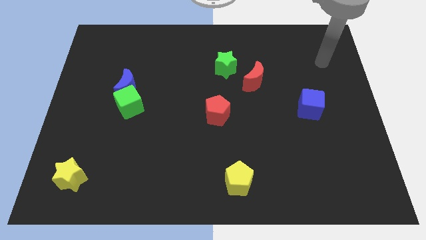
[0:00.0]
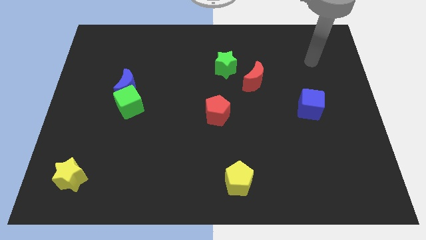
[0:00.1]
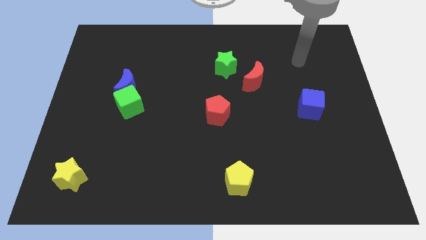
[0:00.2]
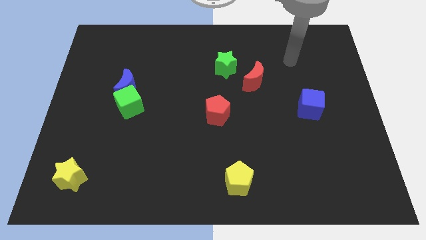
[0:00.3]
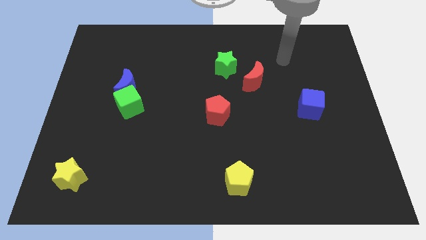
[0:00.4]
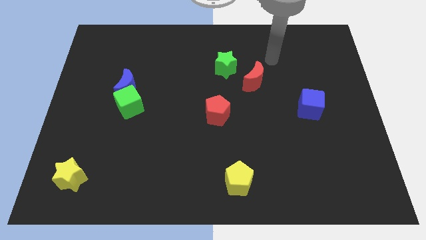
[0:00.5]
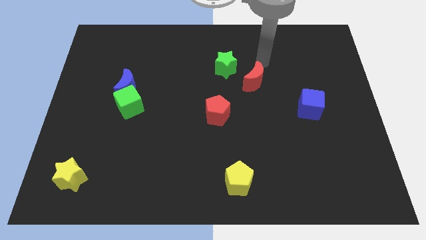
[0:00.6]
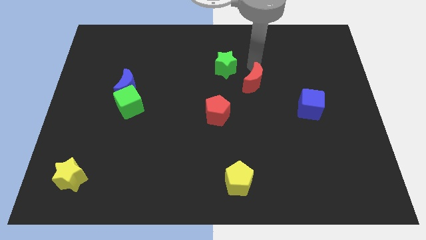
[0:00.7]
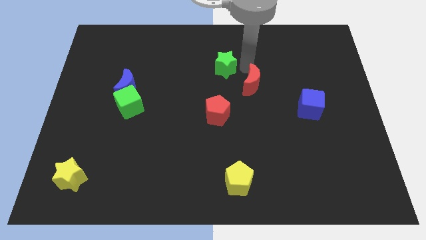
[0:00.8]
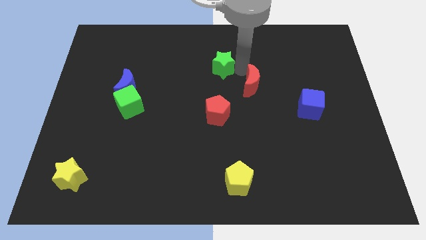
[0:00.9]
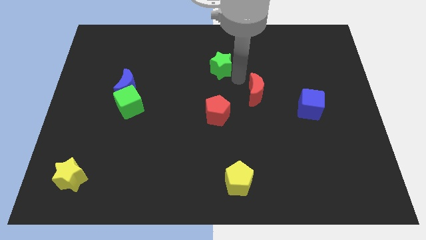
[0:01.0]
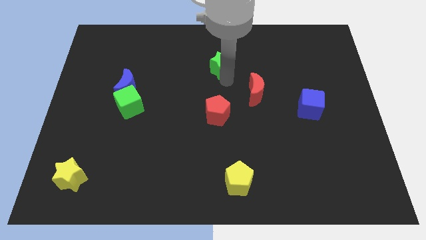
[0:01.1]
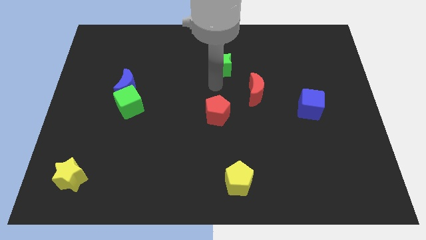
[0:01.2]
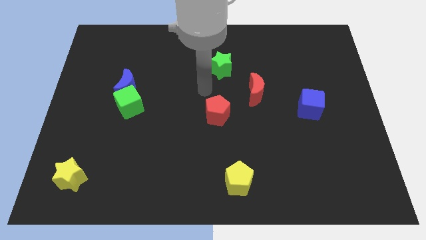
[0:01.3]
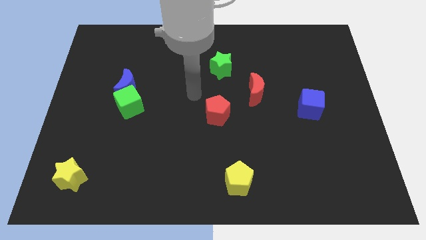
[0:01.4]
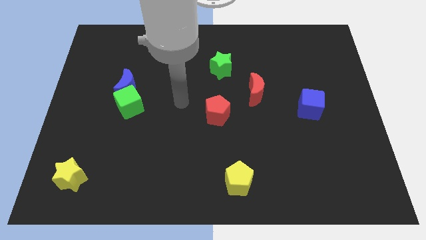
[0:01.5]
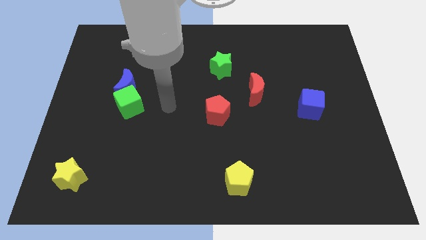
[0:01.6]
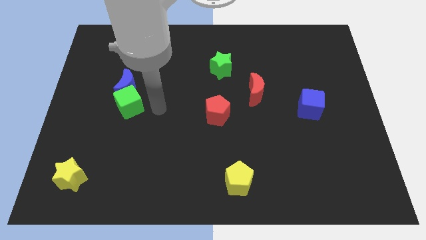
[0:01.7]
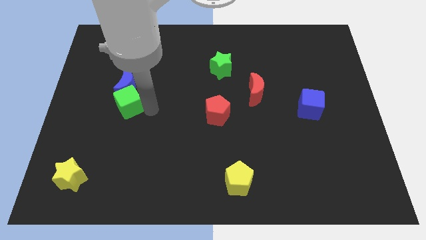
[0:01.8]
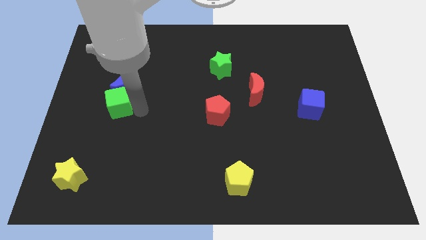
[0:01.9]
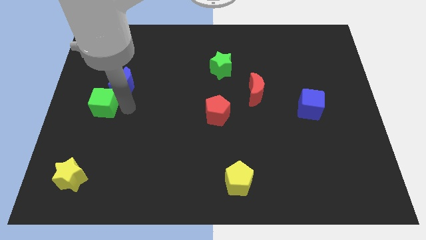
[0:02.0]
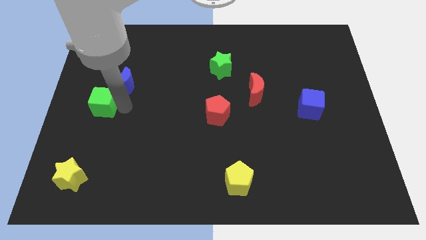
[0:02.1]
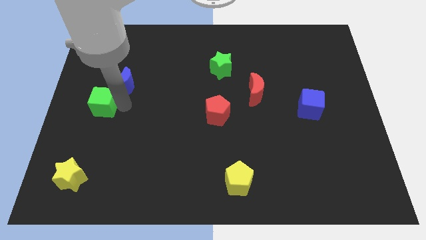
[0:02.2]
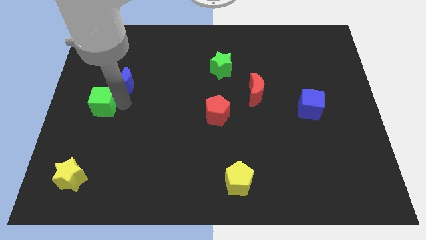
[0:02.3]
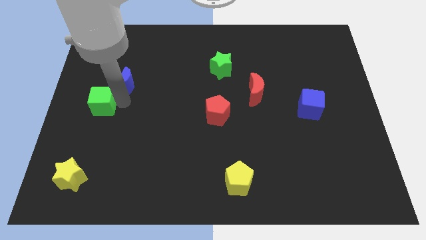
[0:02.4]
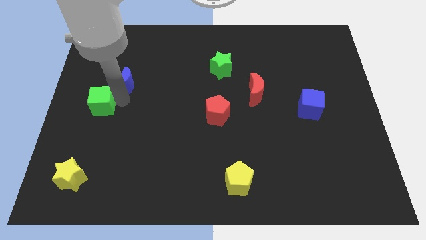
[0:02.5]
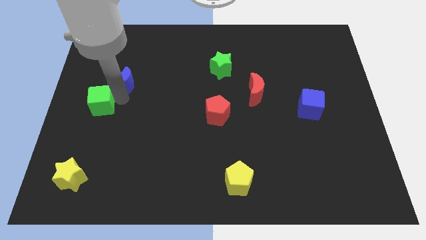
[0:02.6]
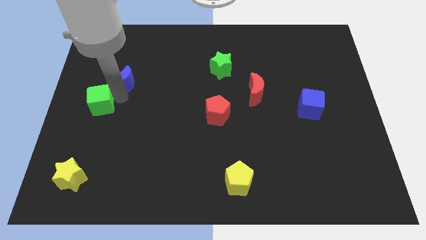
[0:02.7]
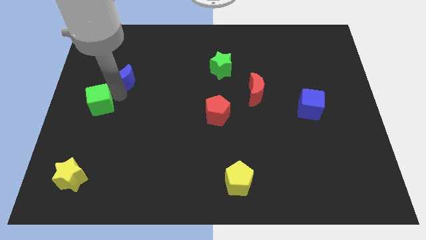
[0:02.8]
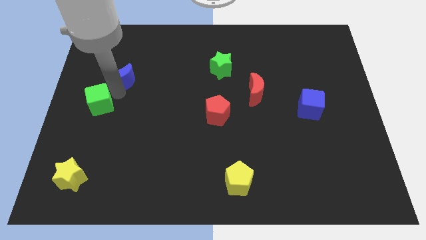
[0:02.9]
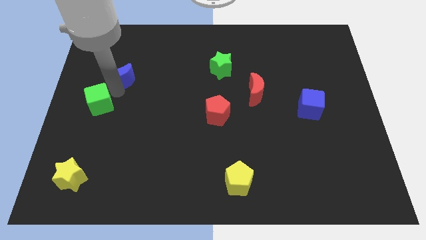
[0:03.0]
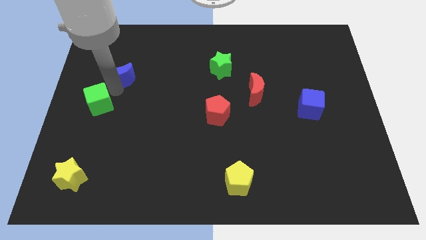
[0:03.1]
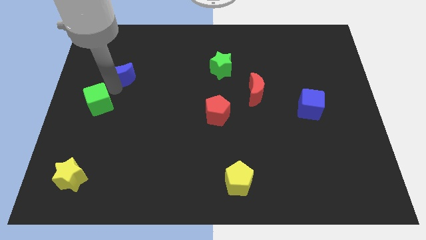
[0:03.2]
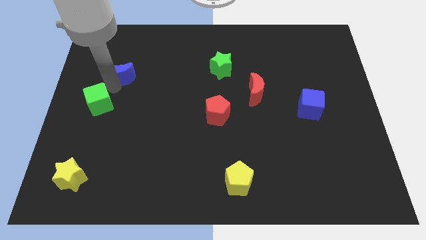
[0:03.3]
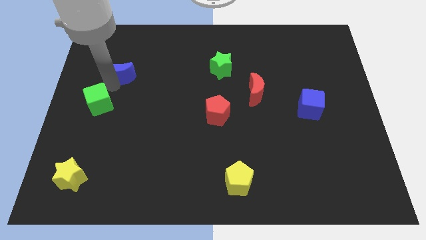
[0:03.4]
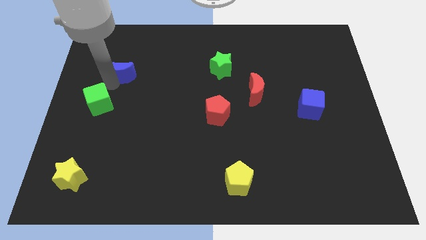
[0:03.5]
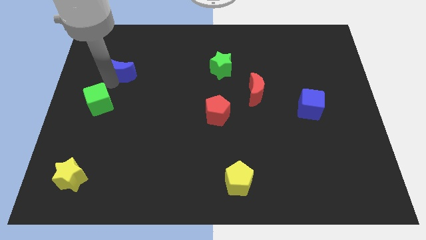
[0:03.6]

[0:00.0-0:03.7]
separate the blue moon from the green cube

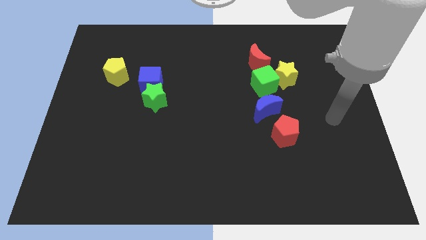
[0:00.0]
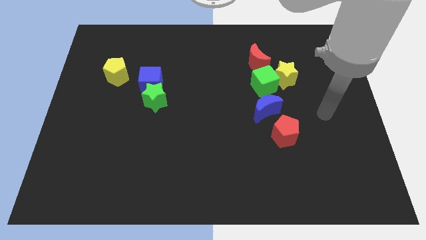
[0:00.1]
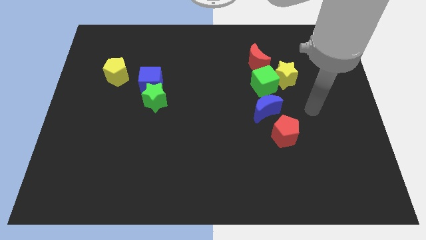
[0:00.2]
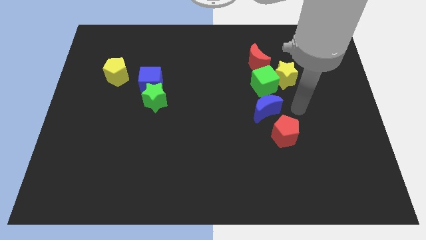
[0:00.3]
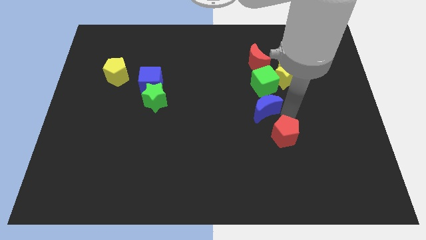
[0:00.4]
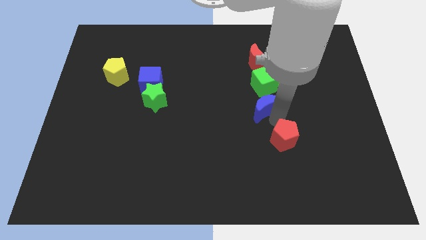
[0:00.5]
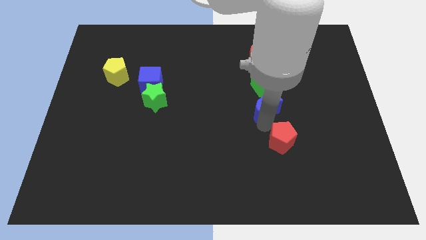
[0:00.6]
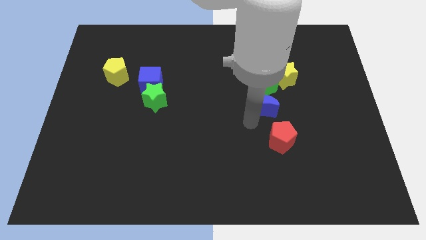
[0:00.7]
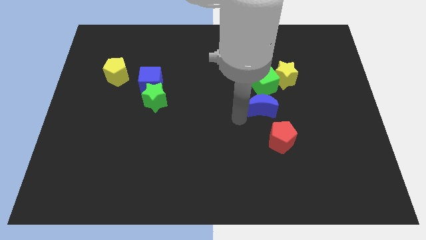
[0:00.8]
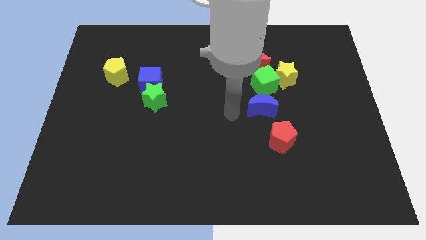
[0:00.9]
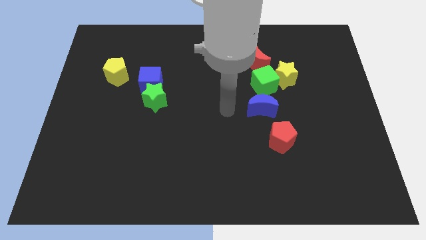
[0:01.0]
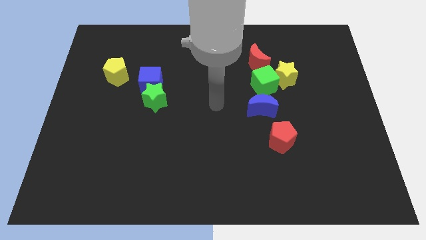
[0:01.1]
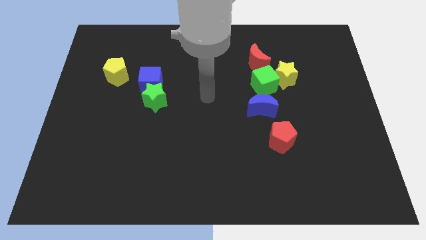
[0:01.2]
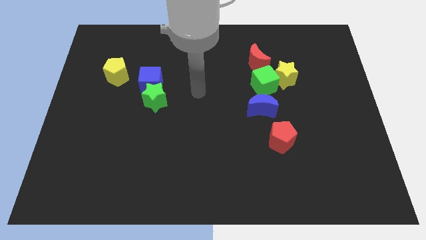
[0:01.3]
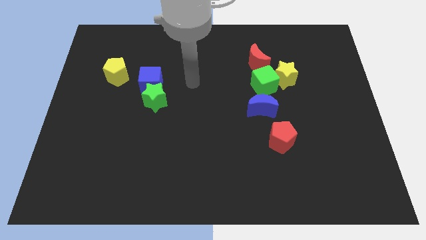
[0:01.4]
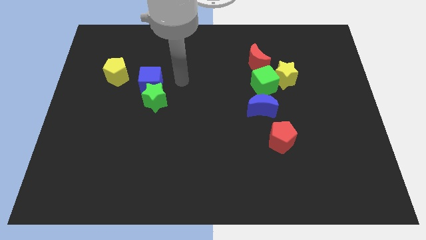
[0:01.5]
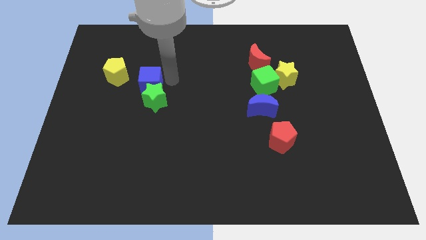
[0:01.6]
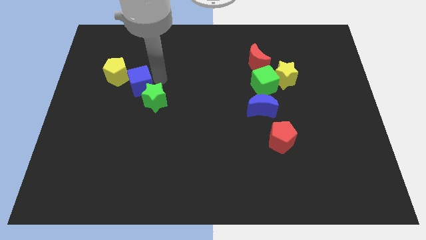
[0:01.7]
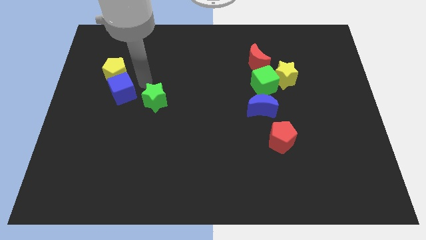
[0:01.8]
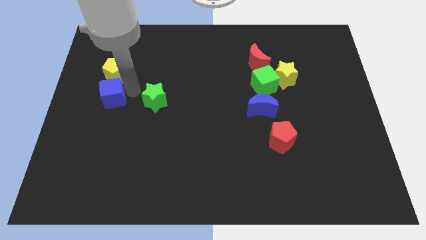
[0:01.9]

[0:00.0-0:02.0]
separate the green star from the blue cube

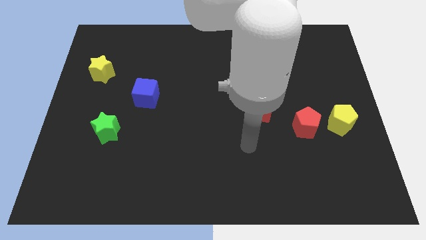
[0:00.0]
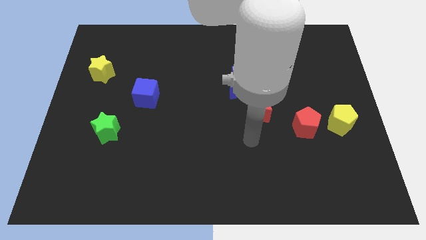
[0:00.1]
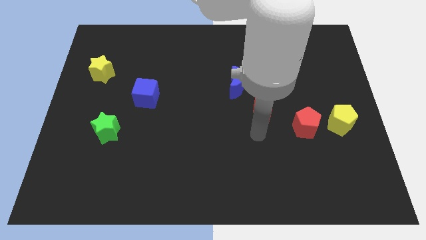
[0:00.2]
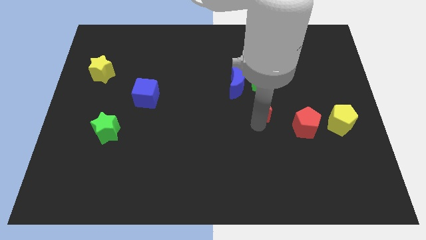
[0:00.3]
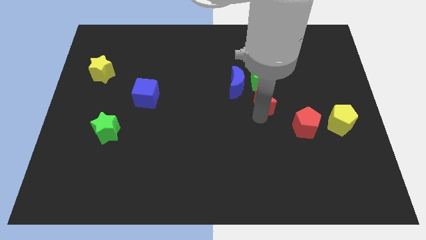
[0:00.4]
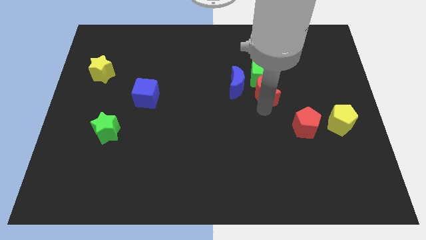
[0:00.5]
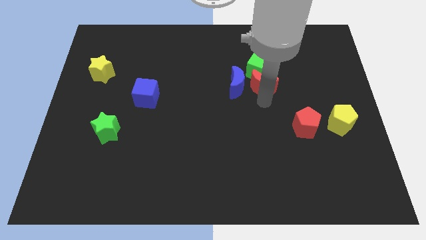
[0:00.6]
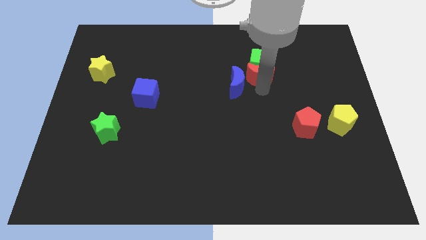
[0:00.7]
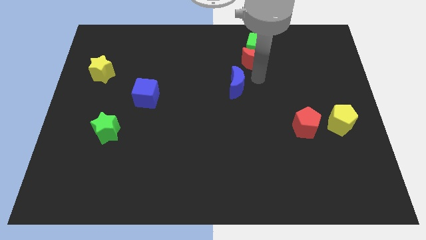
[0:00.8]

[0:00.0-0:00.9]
move the blue moon away from the green cube and red moon
